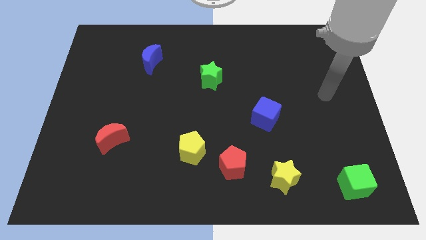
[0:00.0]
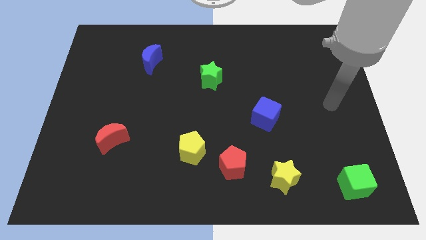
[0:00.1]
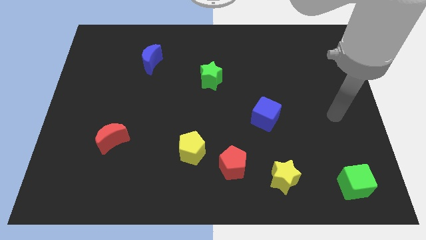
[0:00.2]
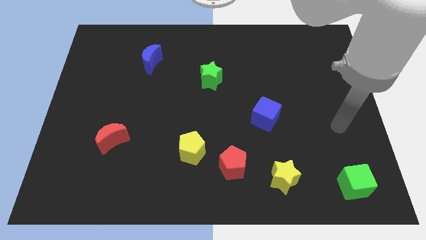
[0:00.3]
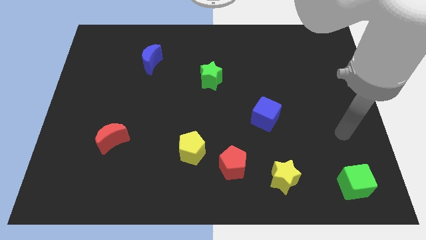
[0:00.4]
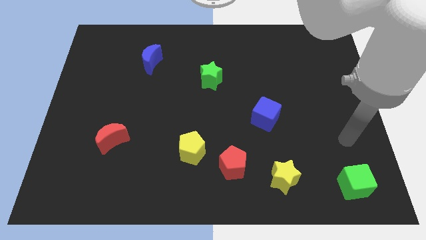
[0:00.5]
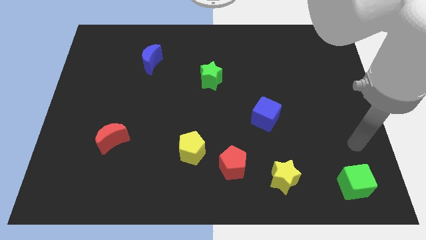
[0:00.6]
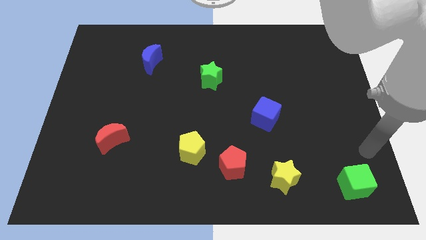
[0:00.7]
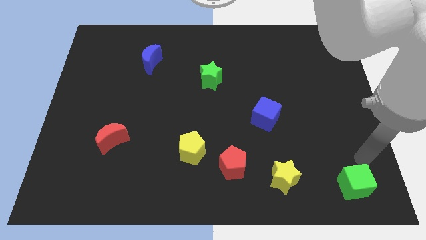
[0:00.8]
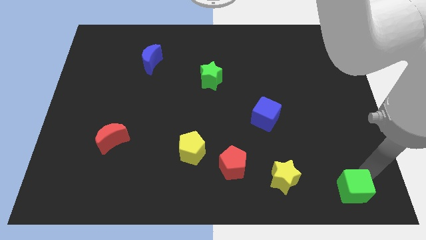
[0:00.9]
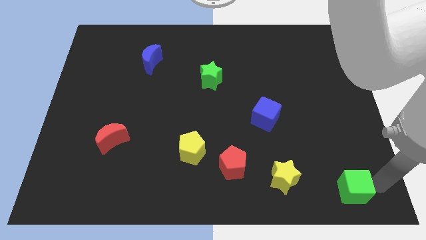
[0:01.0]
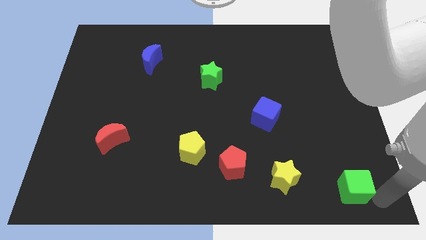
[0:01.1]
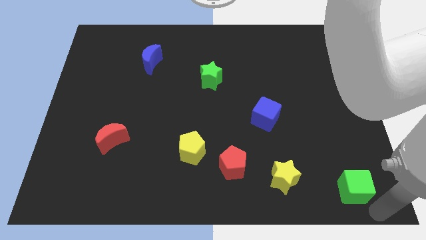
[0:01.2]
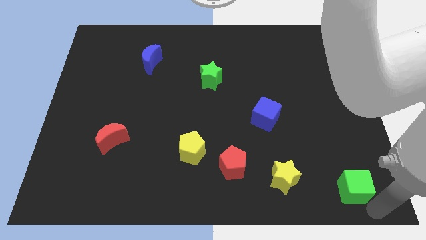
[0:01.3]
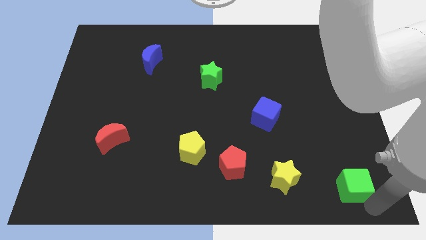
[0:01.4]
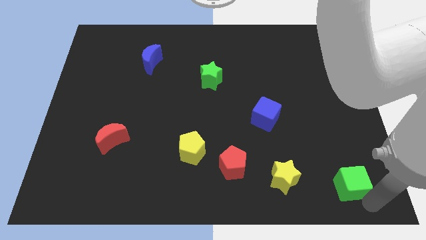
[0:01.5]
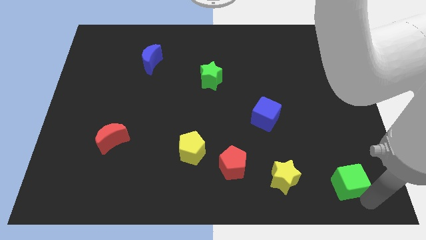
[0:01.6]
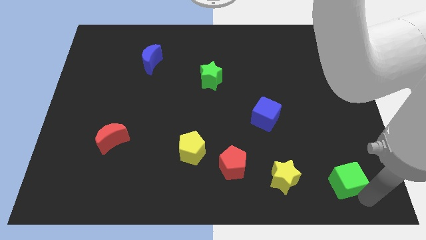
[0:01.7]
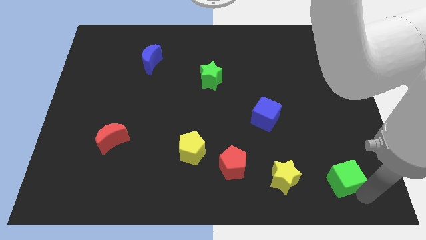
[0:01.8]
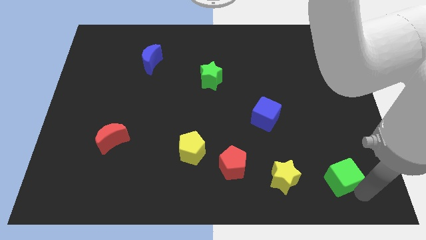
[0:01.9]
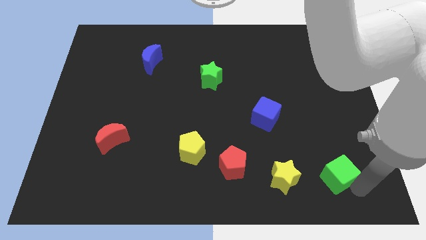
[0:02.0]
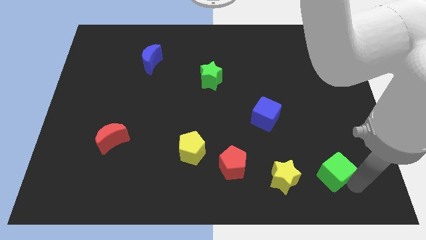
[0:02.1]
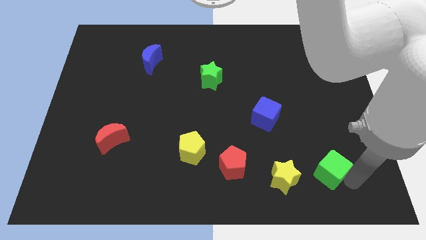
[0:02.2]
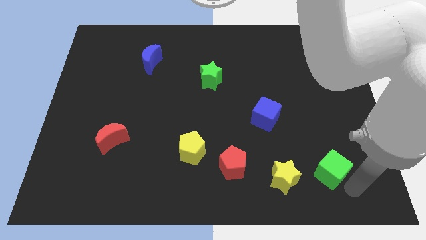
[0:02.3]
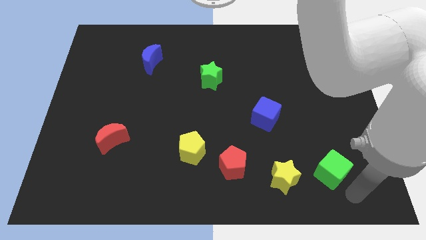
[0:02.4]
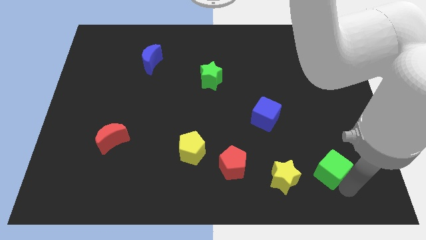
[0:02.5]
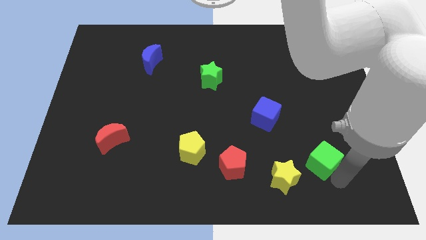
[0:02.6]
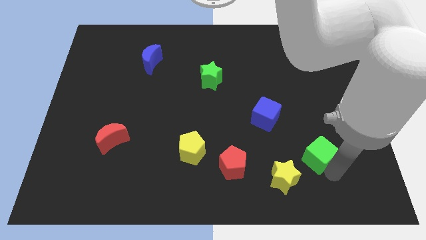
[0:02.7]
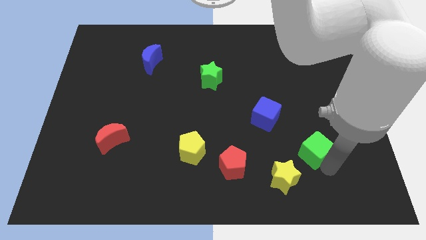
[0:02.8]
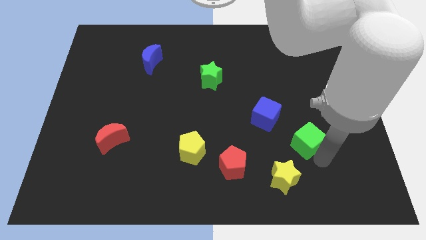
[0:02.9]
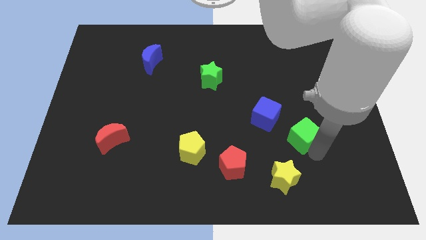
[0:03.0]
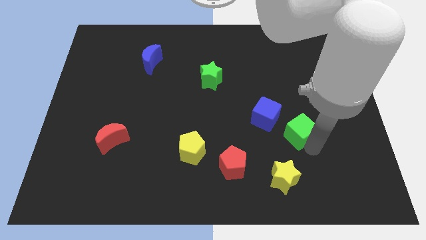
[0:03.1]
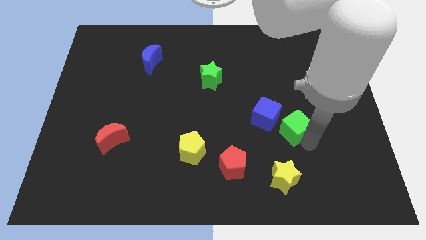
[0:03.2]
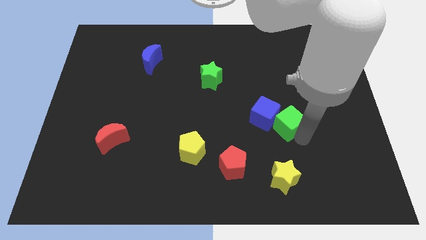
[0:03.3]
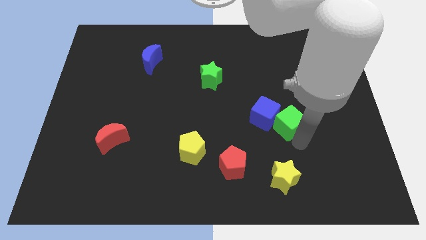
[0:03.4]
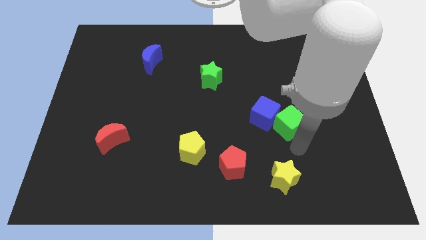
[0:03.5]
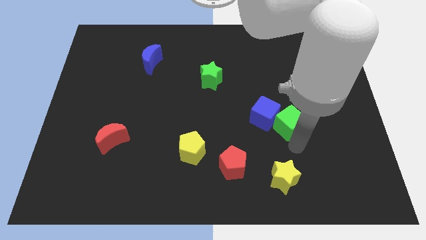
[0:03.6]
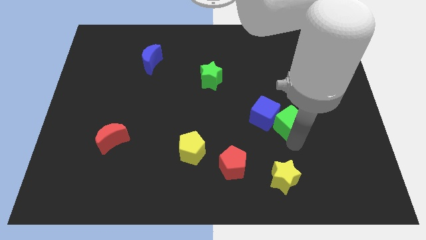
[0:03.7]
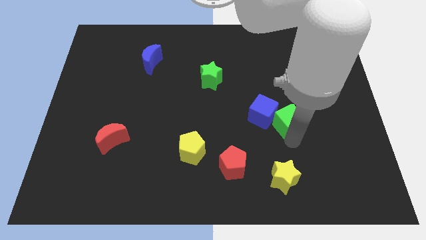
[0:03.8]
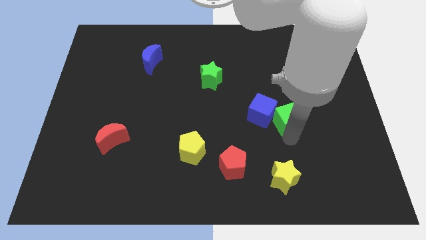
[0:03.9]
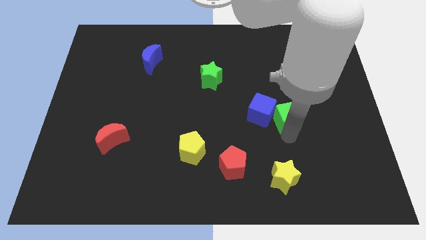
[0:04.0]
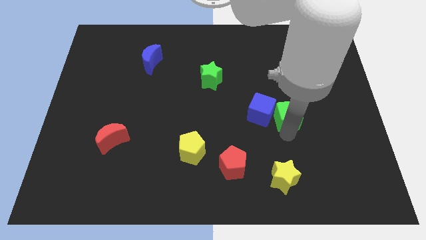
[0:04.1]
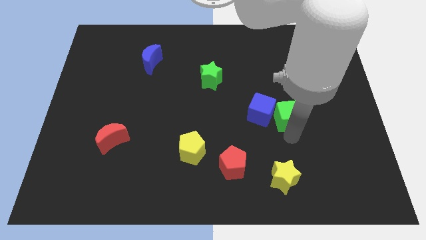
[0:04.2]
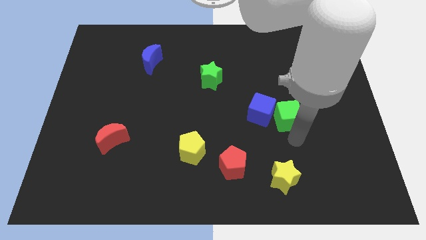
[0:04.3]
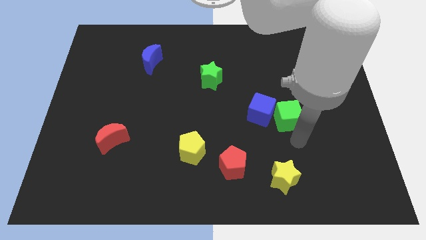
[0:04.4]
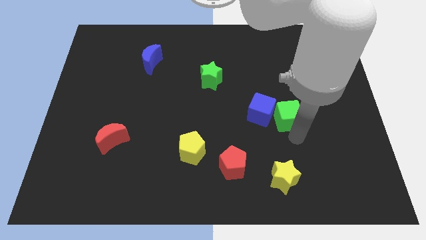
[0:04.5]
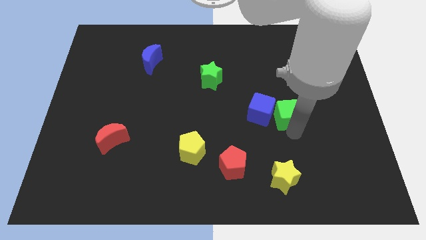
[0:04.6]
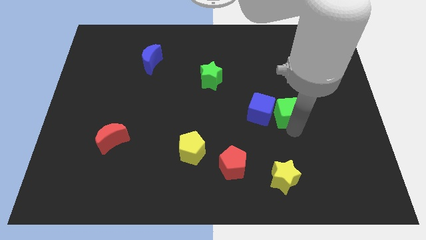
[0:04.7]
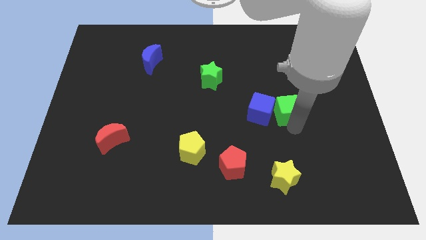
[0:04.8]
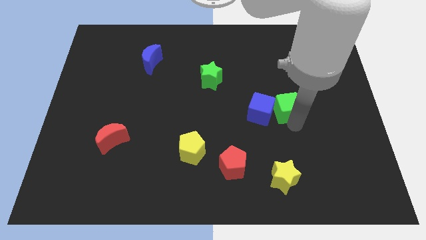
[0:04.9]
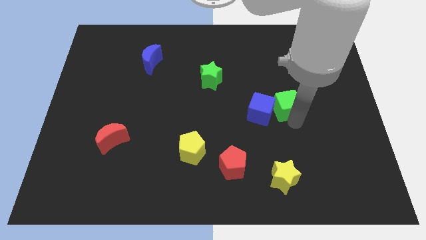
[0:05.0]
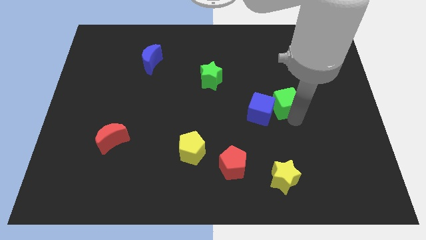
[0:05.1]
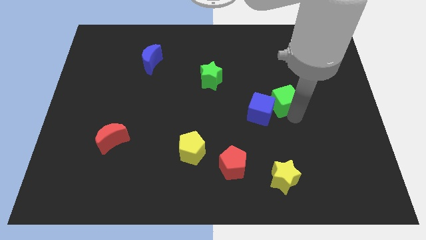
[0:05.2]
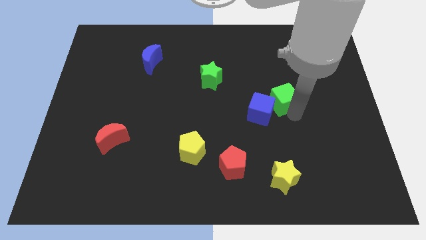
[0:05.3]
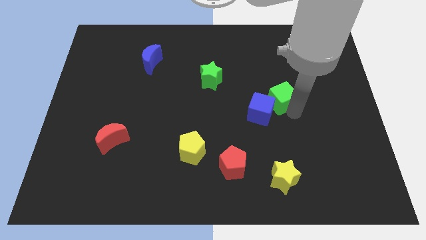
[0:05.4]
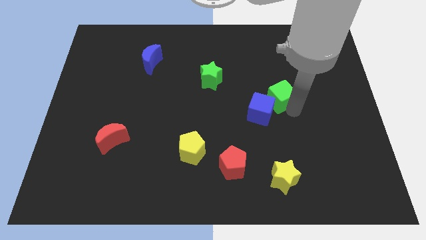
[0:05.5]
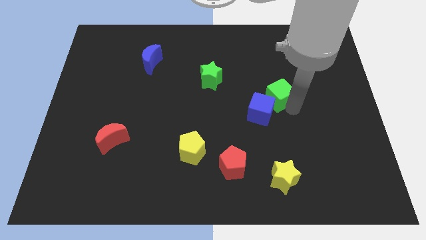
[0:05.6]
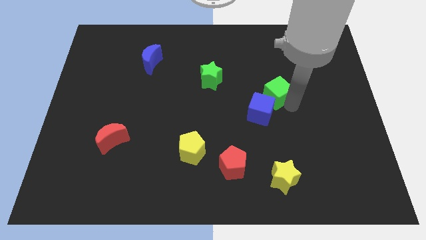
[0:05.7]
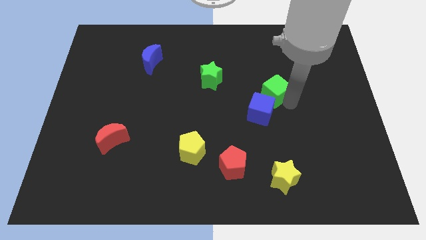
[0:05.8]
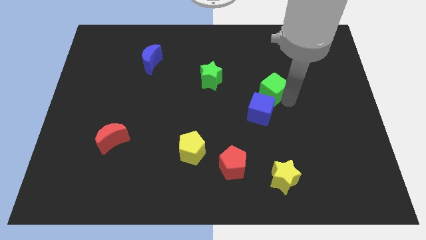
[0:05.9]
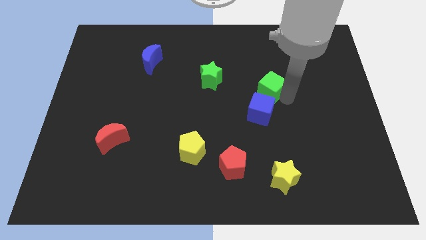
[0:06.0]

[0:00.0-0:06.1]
put the green cube right of the green star

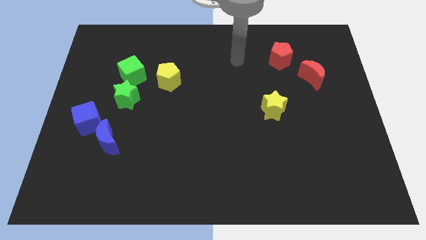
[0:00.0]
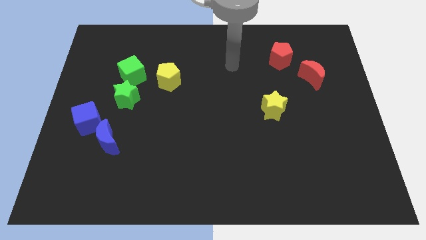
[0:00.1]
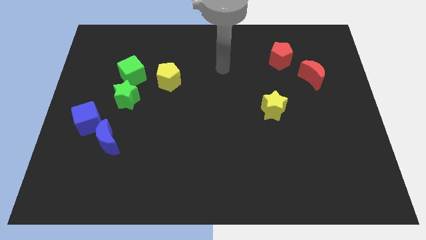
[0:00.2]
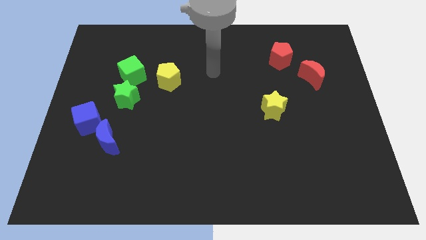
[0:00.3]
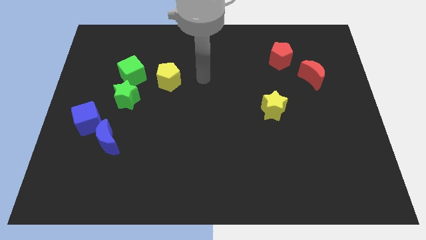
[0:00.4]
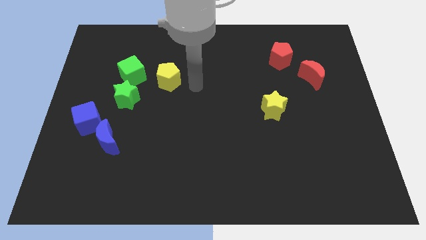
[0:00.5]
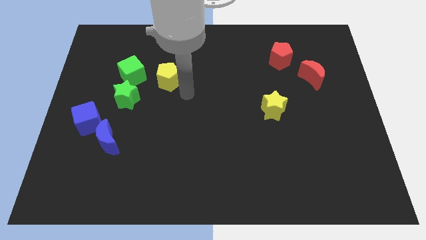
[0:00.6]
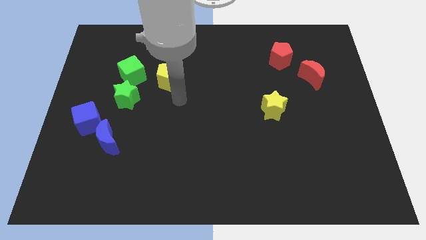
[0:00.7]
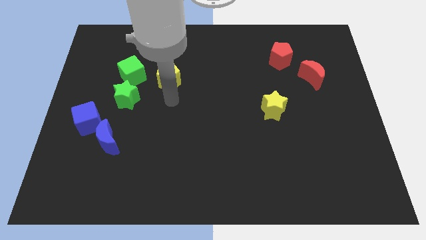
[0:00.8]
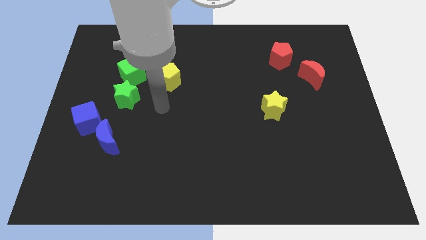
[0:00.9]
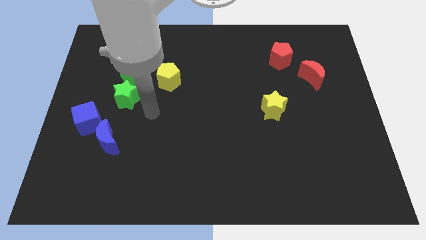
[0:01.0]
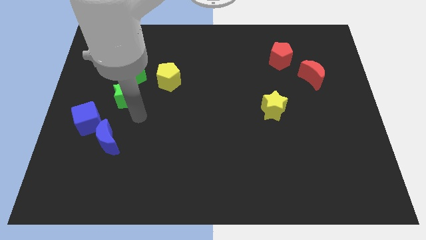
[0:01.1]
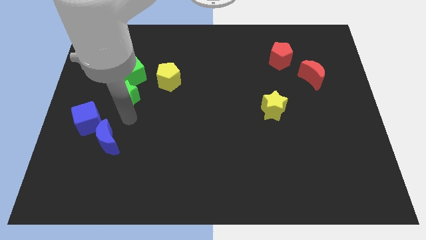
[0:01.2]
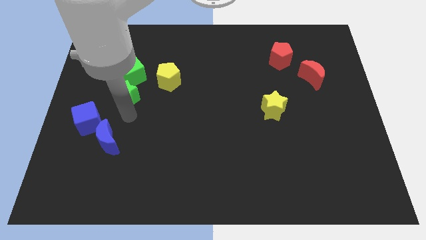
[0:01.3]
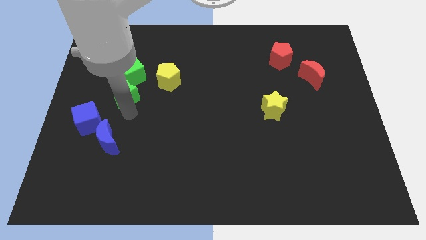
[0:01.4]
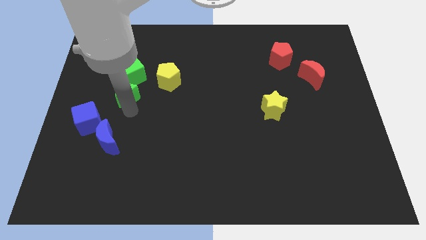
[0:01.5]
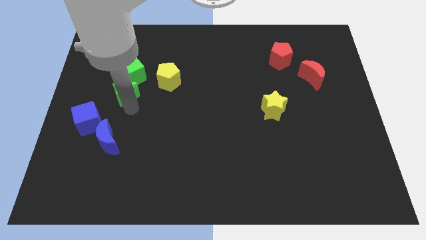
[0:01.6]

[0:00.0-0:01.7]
move the green star just left of the yellow pentagon
